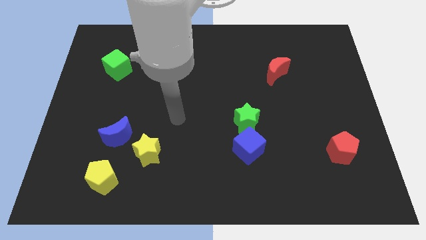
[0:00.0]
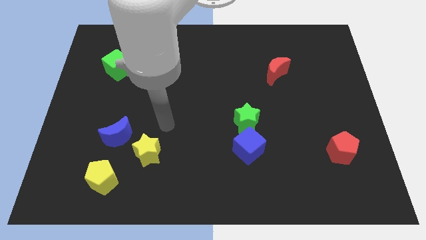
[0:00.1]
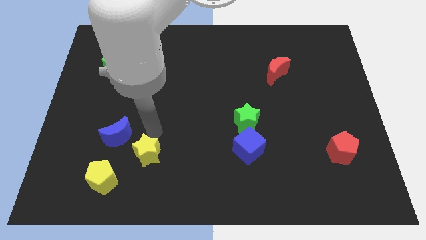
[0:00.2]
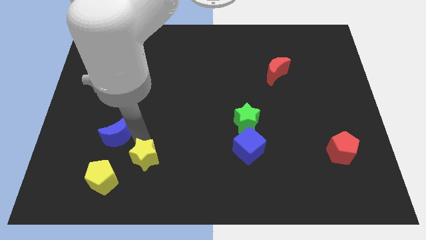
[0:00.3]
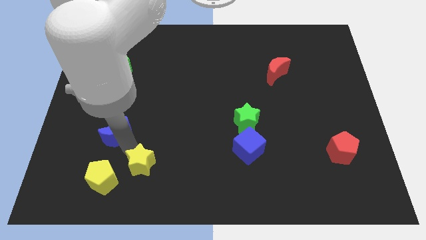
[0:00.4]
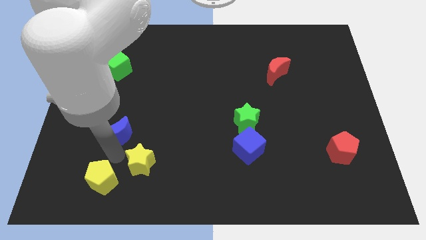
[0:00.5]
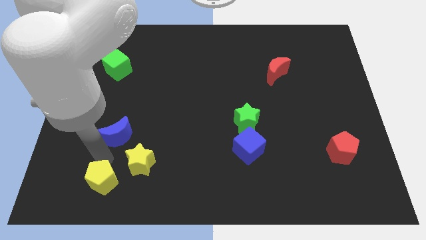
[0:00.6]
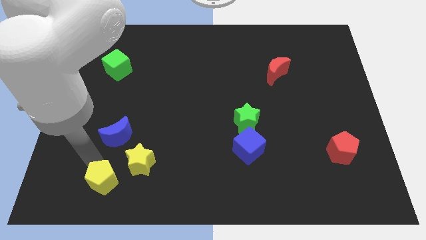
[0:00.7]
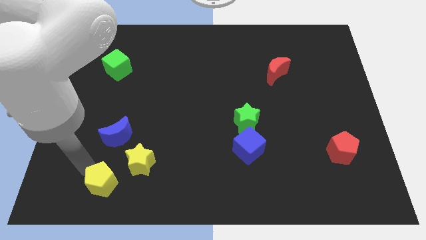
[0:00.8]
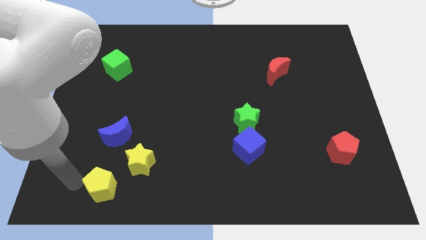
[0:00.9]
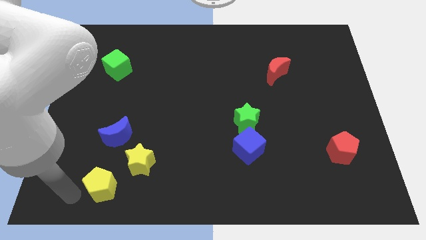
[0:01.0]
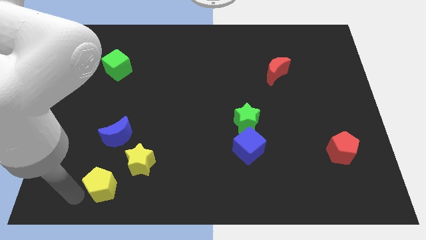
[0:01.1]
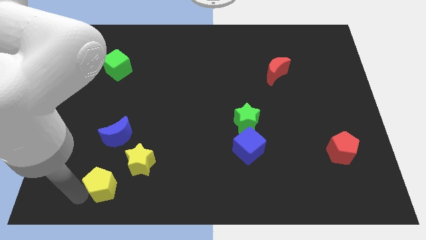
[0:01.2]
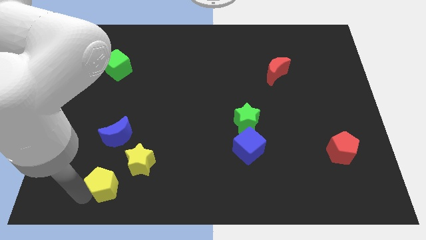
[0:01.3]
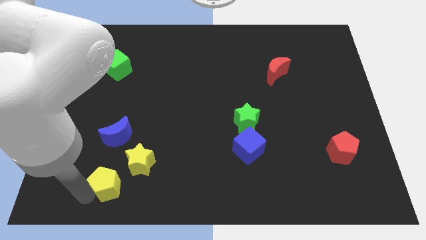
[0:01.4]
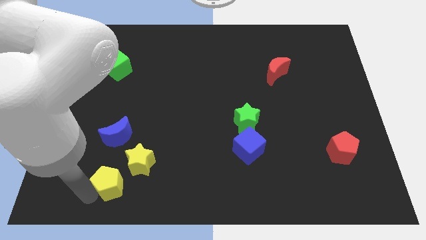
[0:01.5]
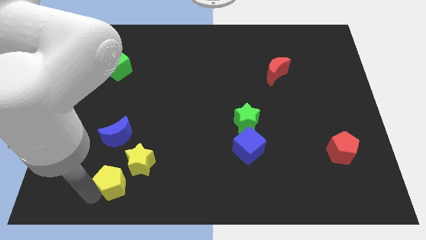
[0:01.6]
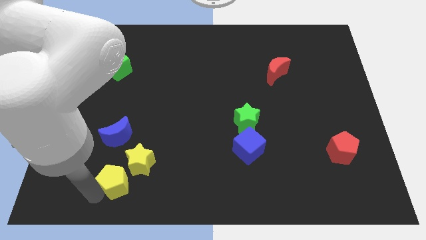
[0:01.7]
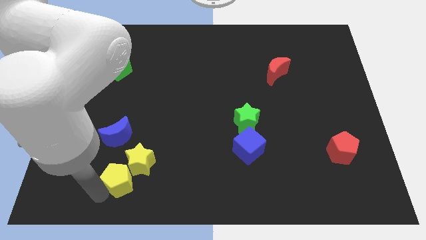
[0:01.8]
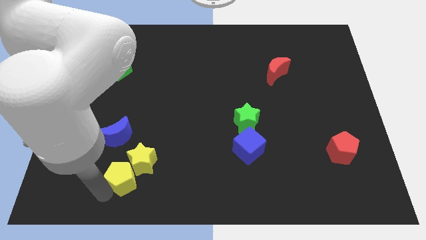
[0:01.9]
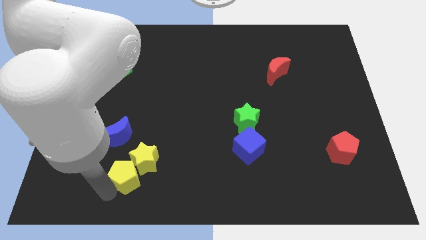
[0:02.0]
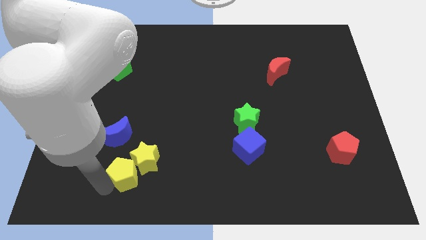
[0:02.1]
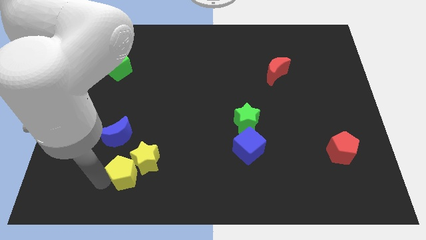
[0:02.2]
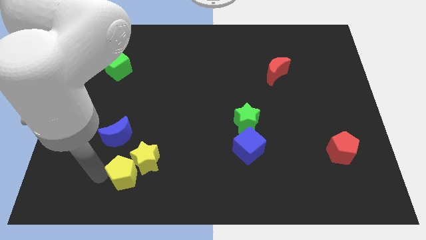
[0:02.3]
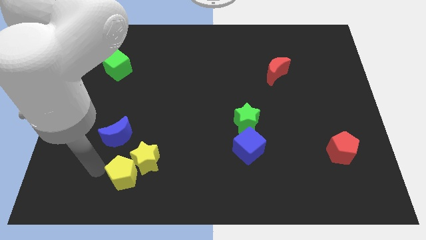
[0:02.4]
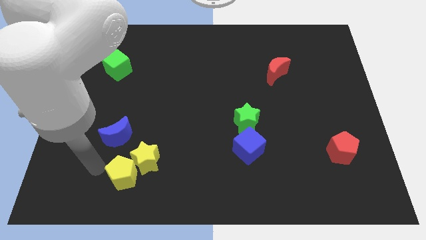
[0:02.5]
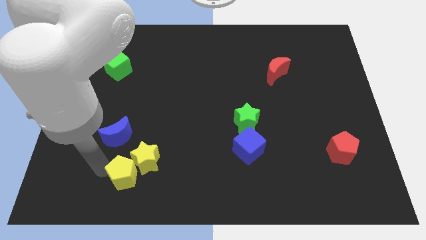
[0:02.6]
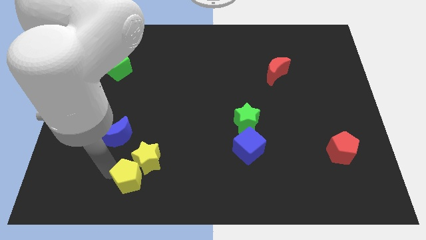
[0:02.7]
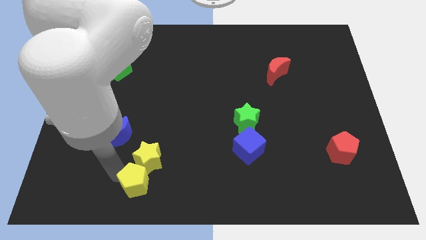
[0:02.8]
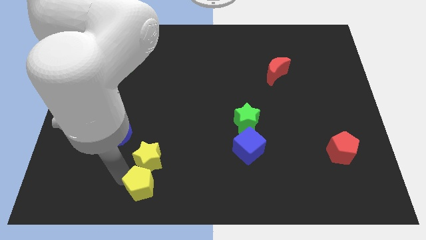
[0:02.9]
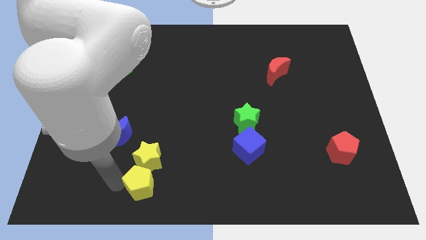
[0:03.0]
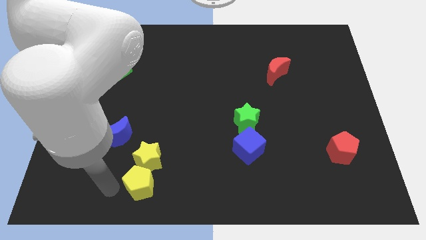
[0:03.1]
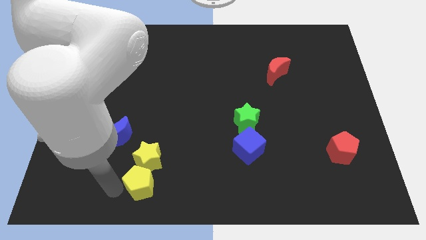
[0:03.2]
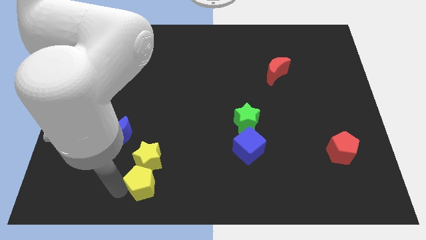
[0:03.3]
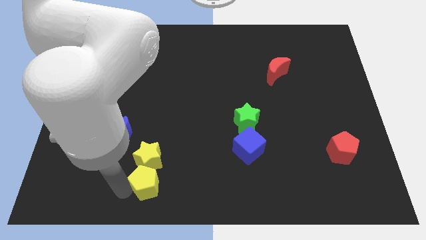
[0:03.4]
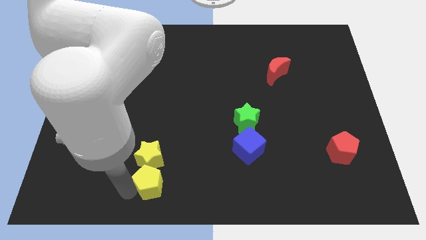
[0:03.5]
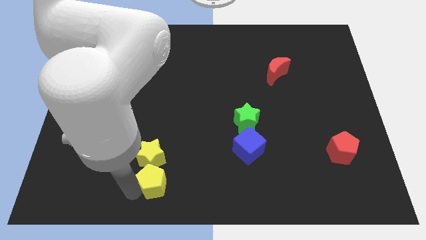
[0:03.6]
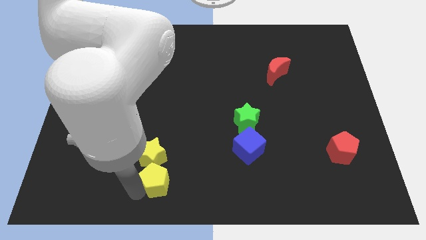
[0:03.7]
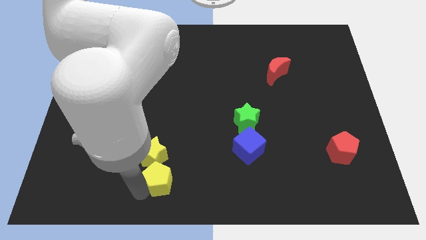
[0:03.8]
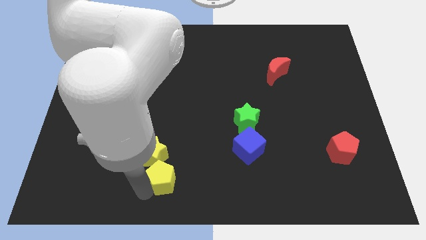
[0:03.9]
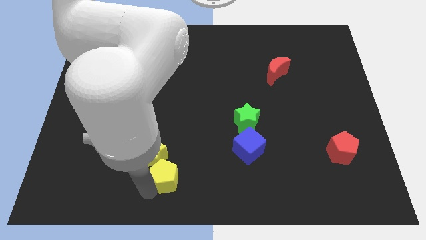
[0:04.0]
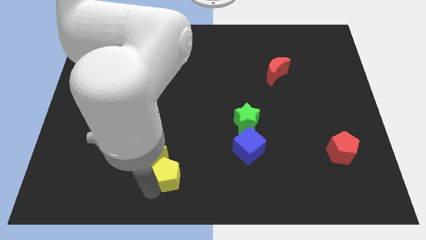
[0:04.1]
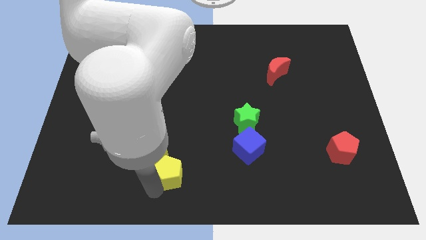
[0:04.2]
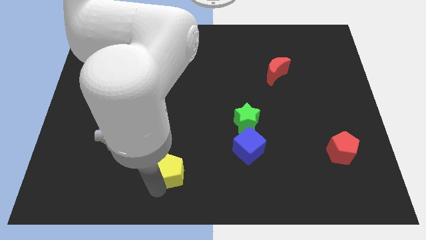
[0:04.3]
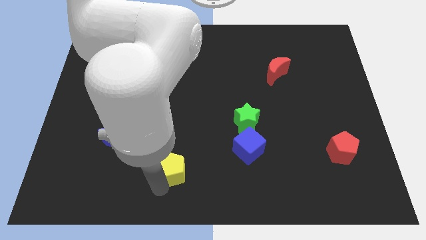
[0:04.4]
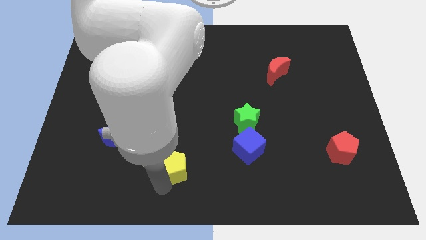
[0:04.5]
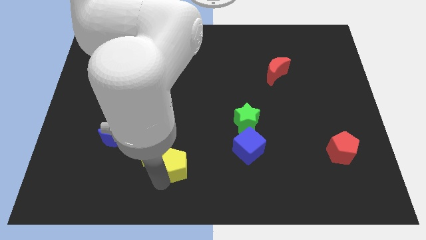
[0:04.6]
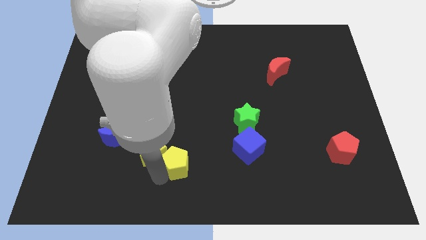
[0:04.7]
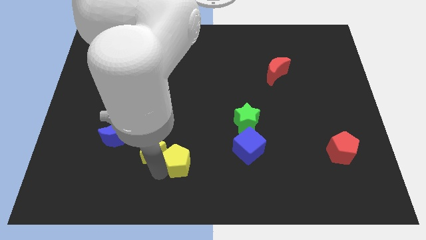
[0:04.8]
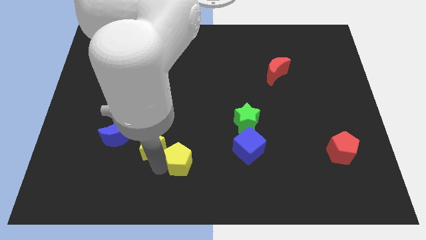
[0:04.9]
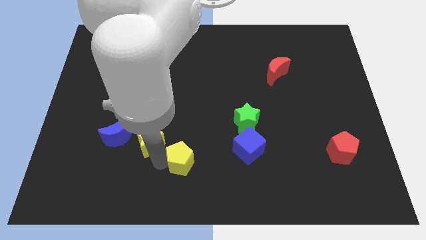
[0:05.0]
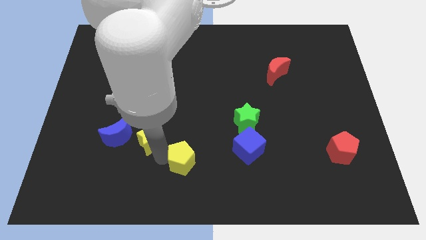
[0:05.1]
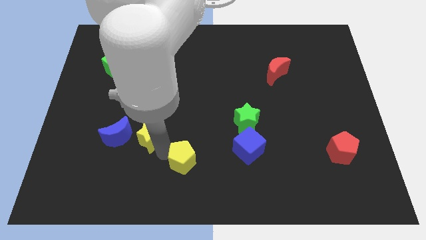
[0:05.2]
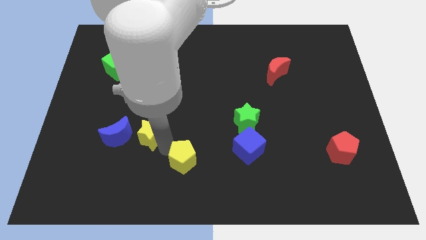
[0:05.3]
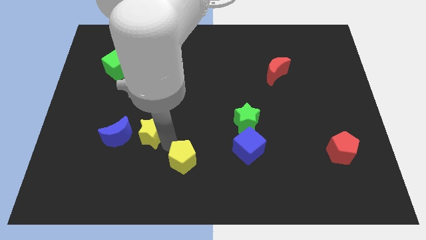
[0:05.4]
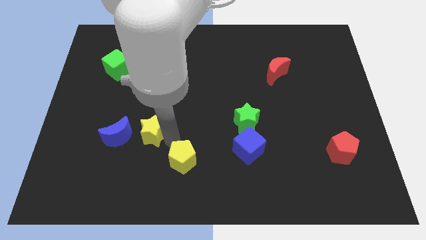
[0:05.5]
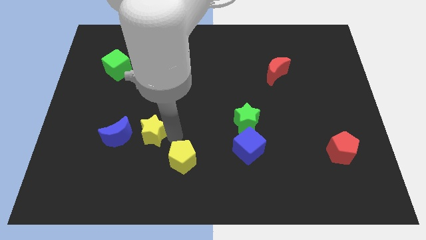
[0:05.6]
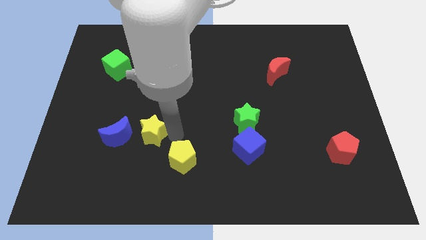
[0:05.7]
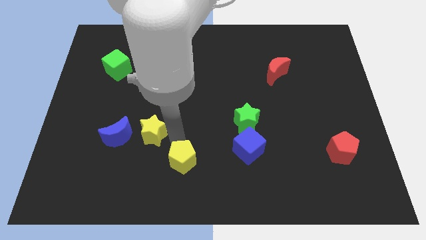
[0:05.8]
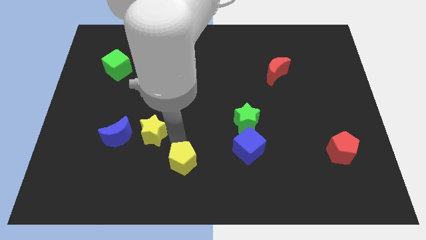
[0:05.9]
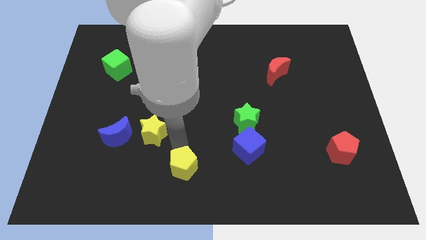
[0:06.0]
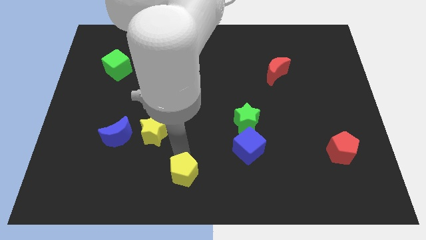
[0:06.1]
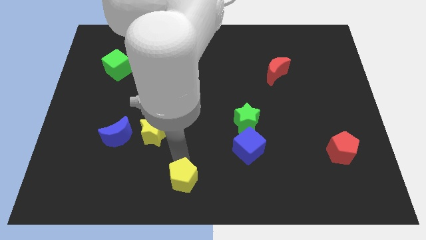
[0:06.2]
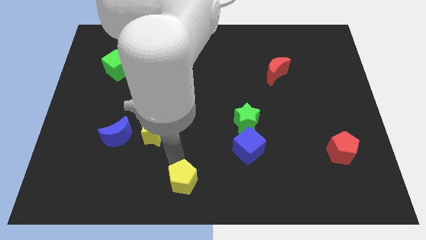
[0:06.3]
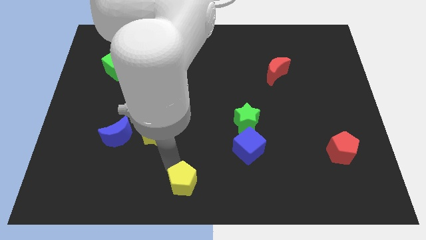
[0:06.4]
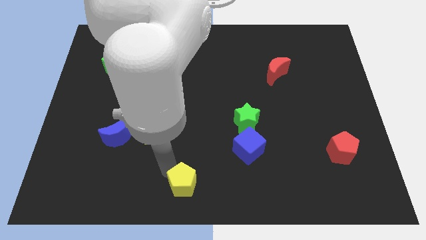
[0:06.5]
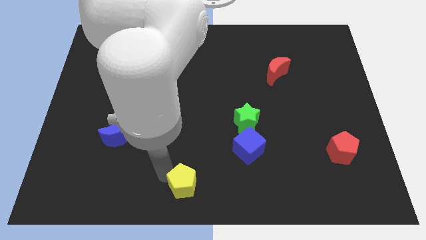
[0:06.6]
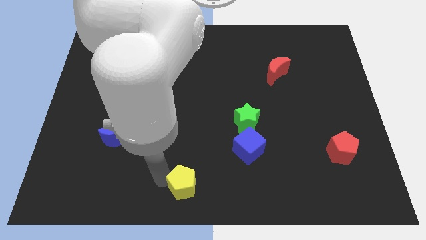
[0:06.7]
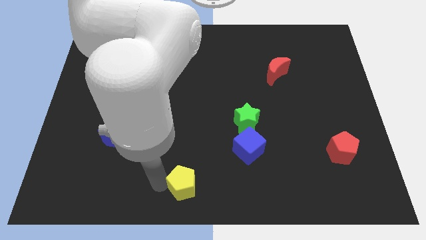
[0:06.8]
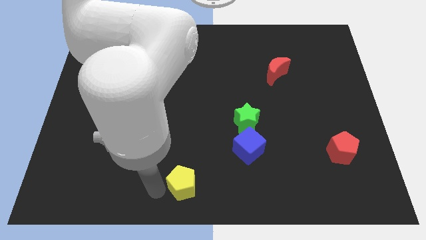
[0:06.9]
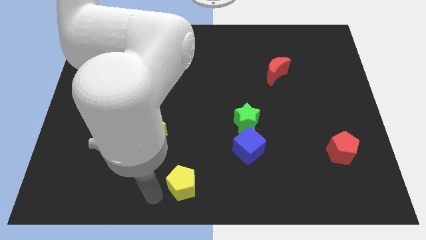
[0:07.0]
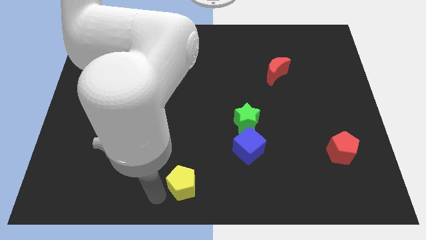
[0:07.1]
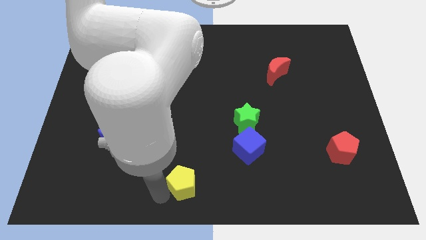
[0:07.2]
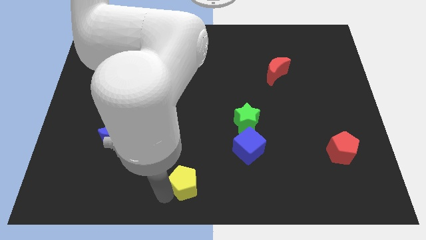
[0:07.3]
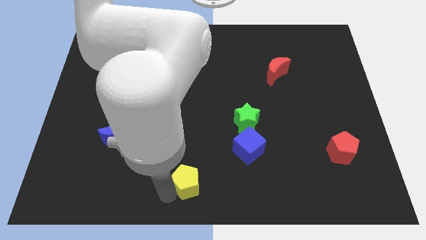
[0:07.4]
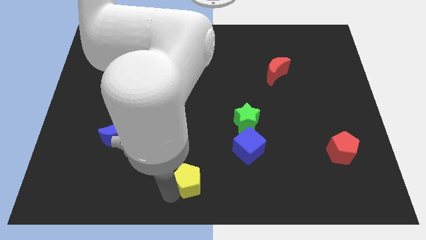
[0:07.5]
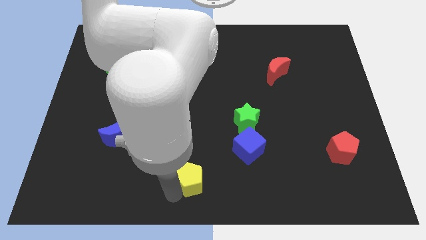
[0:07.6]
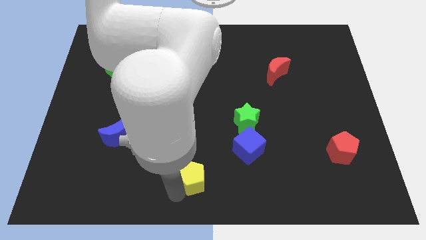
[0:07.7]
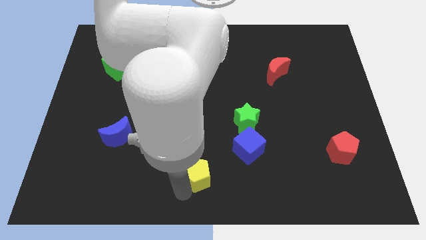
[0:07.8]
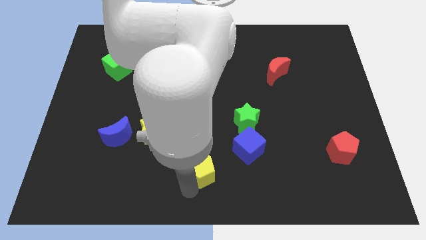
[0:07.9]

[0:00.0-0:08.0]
move the yellow pentagon right
